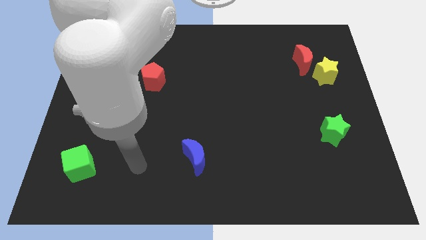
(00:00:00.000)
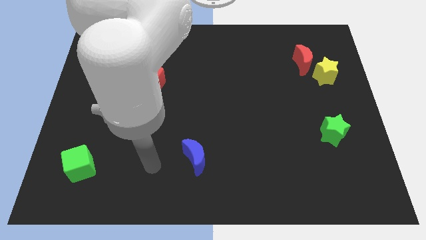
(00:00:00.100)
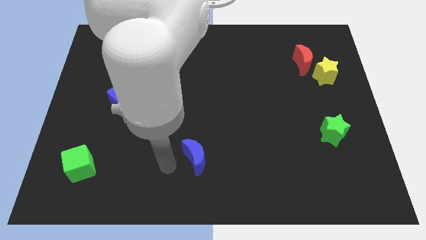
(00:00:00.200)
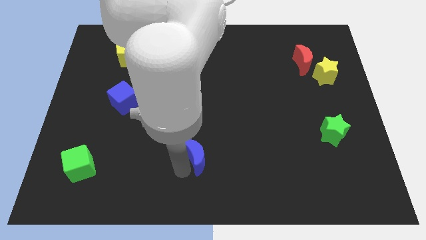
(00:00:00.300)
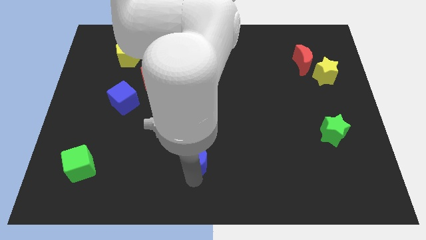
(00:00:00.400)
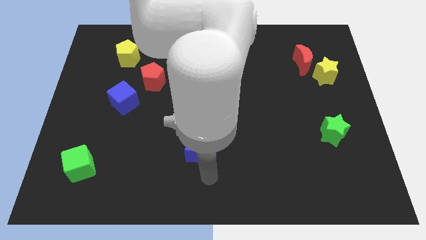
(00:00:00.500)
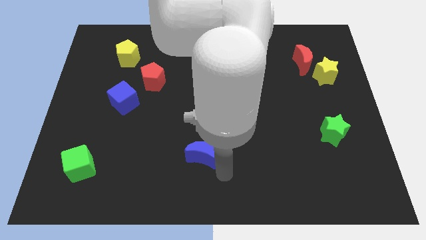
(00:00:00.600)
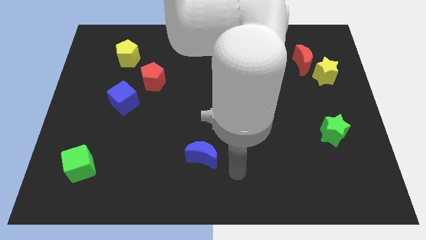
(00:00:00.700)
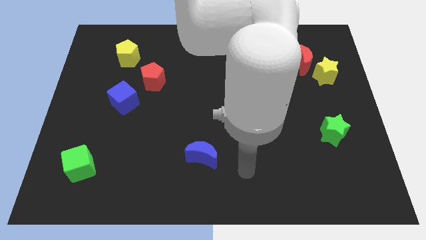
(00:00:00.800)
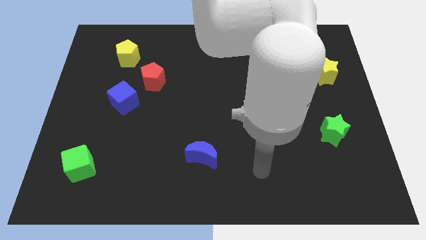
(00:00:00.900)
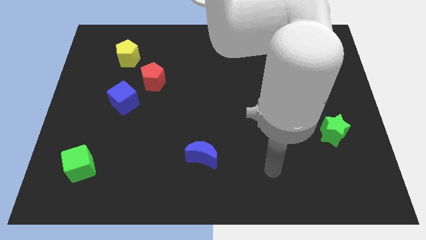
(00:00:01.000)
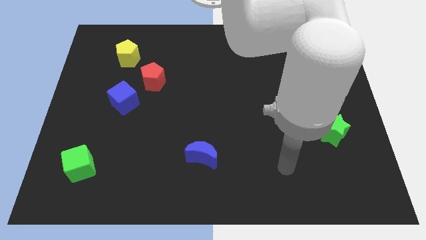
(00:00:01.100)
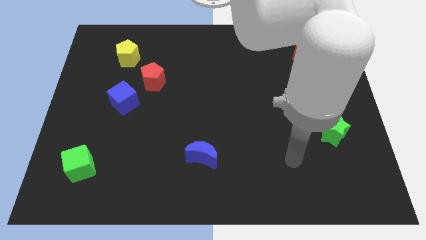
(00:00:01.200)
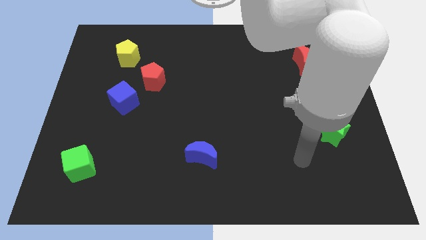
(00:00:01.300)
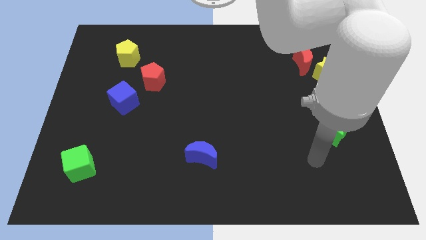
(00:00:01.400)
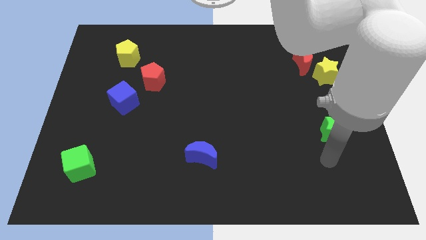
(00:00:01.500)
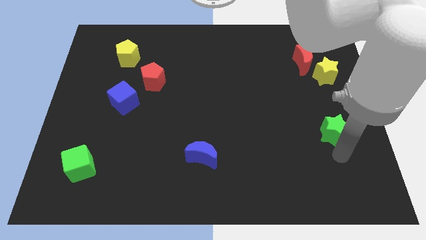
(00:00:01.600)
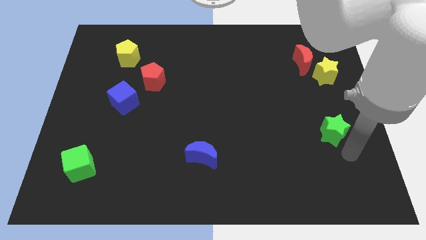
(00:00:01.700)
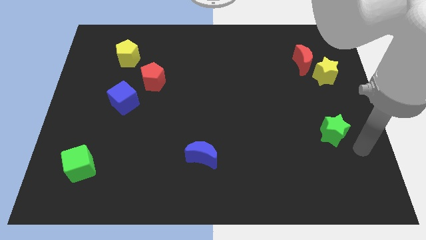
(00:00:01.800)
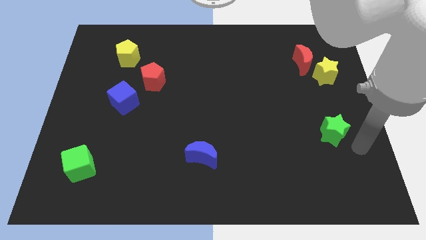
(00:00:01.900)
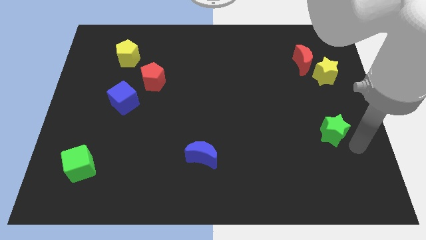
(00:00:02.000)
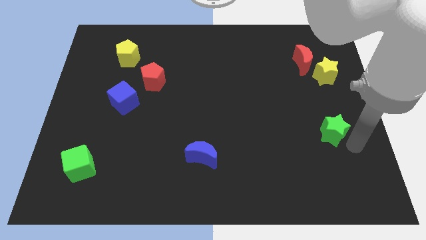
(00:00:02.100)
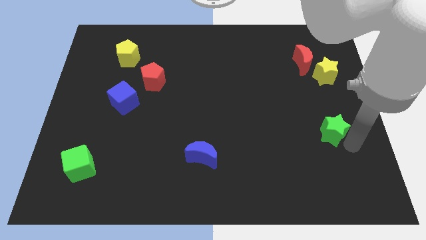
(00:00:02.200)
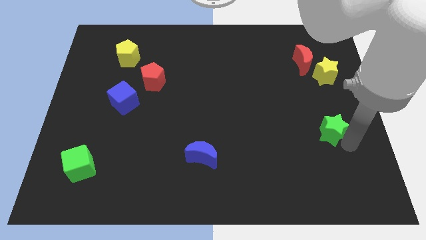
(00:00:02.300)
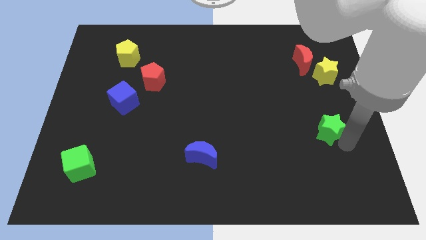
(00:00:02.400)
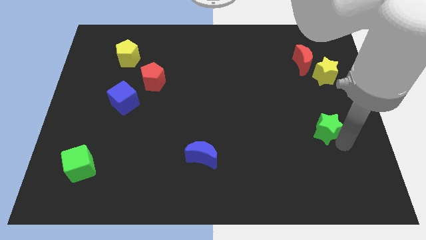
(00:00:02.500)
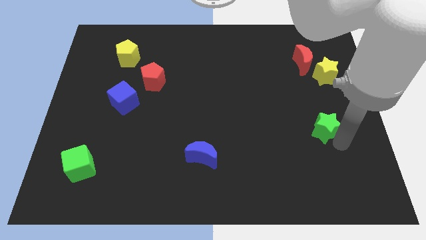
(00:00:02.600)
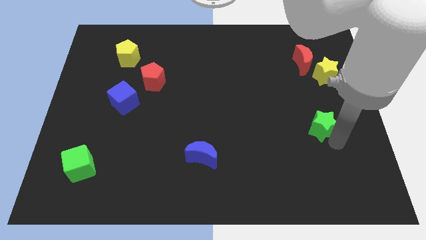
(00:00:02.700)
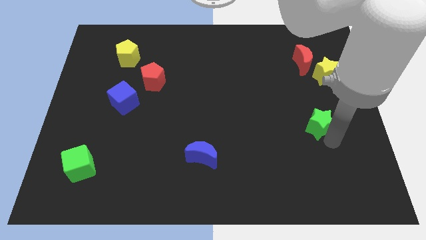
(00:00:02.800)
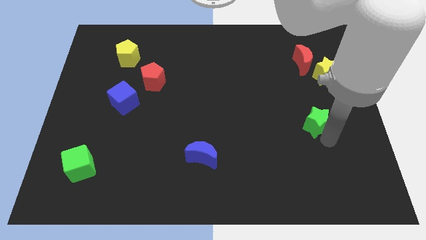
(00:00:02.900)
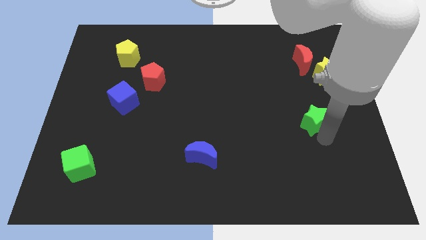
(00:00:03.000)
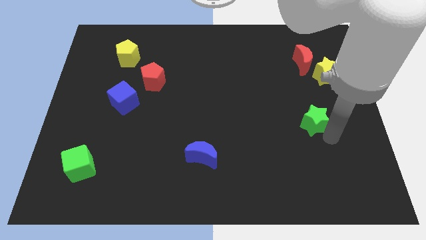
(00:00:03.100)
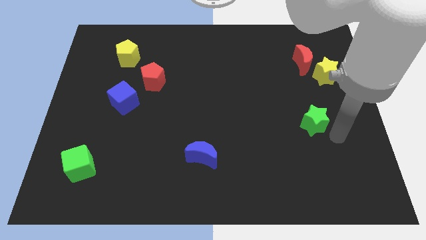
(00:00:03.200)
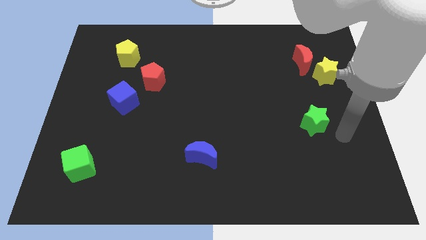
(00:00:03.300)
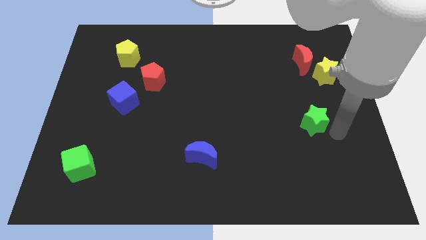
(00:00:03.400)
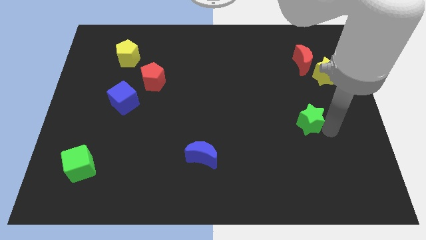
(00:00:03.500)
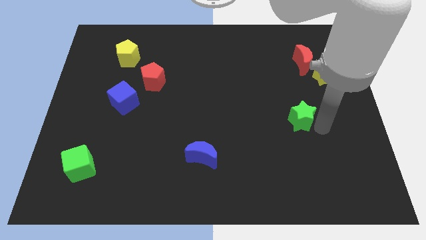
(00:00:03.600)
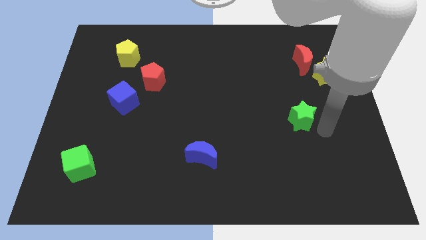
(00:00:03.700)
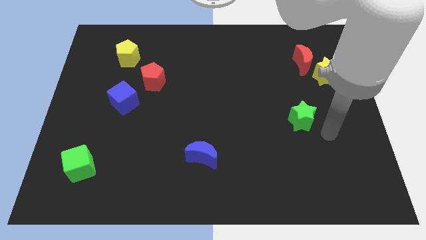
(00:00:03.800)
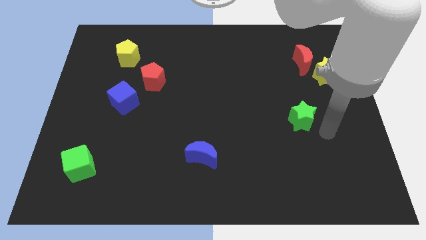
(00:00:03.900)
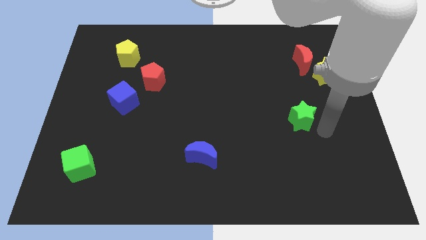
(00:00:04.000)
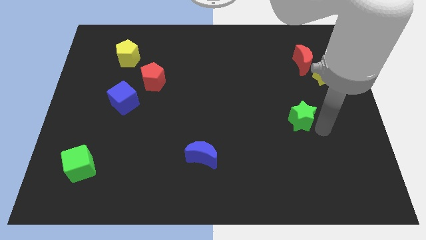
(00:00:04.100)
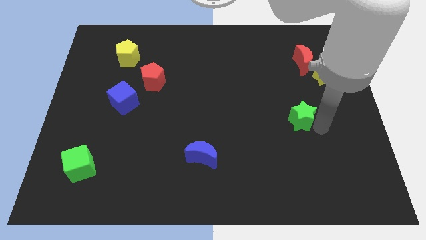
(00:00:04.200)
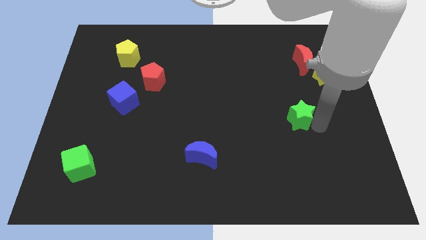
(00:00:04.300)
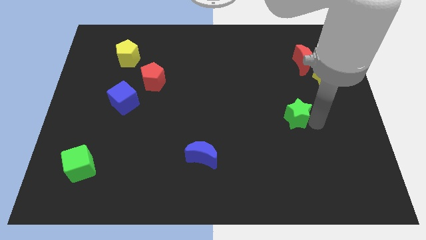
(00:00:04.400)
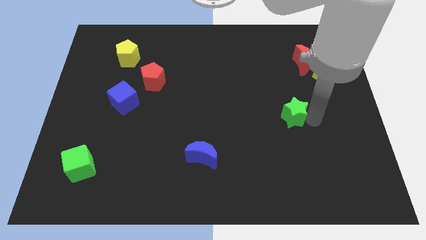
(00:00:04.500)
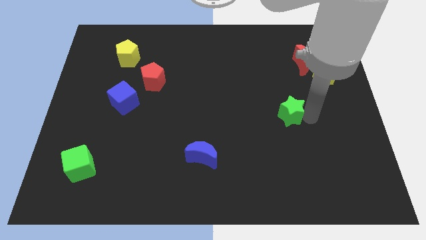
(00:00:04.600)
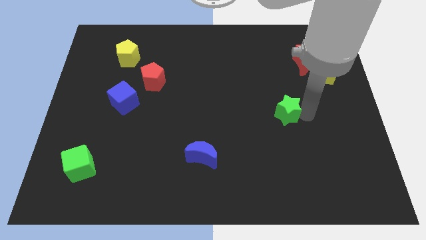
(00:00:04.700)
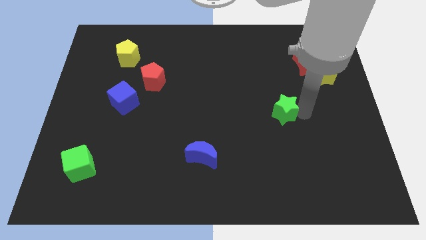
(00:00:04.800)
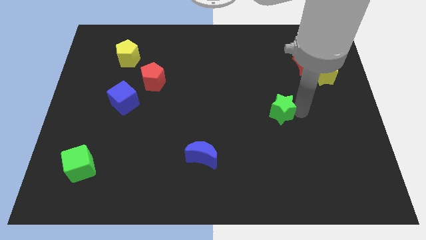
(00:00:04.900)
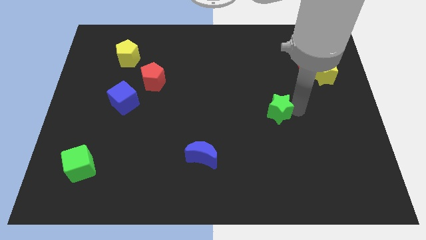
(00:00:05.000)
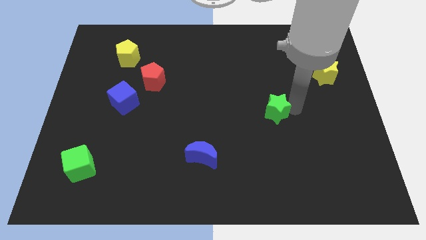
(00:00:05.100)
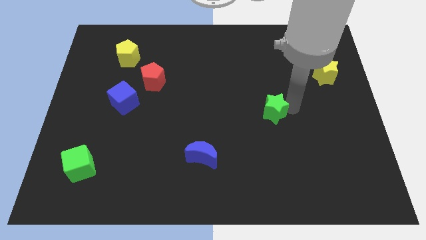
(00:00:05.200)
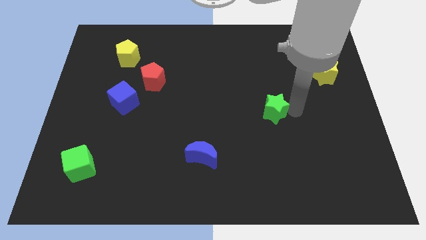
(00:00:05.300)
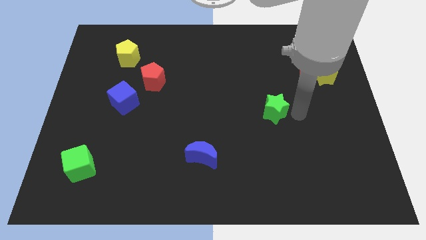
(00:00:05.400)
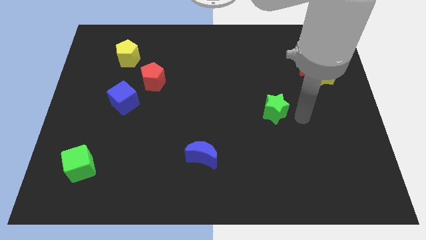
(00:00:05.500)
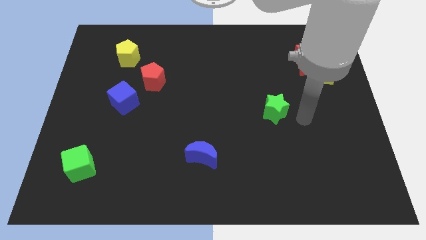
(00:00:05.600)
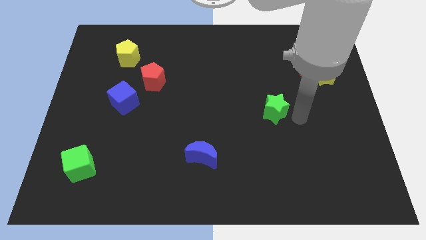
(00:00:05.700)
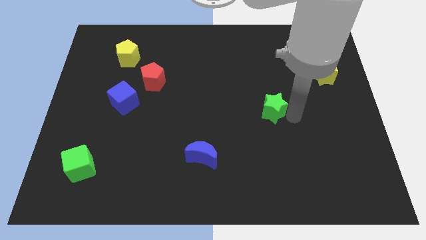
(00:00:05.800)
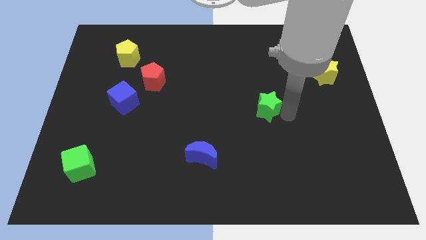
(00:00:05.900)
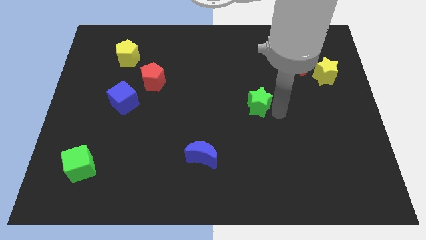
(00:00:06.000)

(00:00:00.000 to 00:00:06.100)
put the green star to the middle of the board

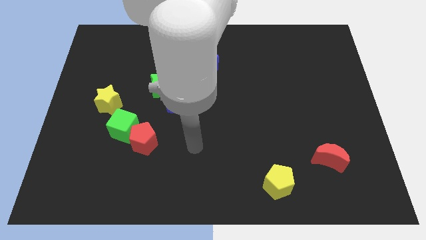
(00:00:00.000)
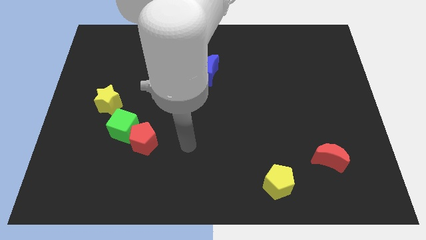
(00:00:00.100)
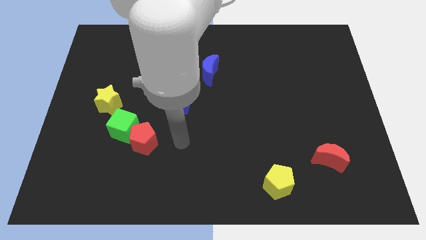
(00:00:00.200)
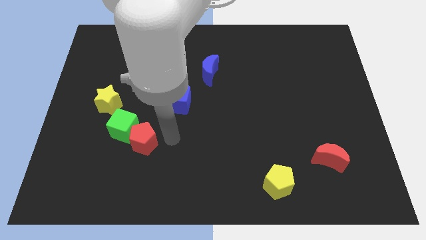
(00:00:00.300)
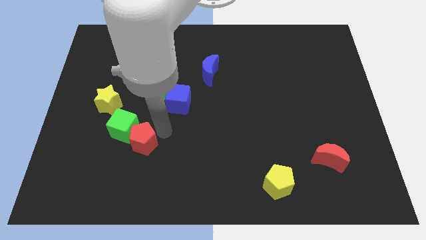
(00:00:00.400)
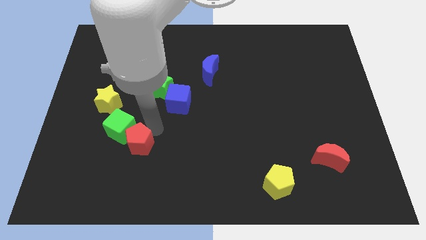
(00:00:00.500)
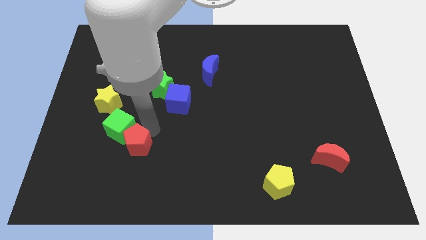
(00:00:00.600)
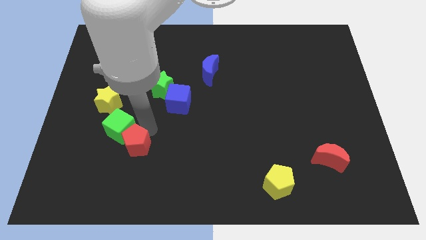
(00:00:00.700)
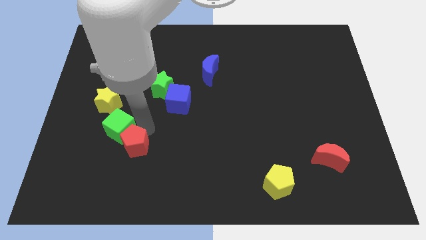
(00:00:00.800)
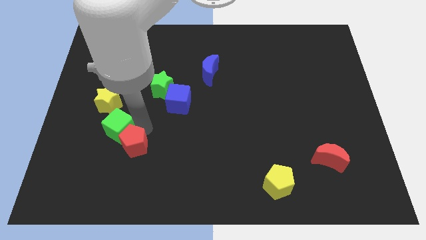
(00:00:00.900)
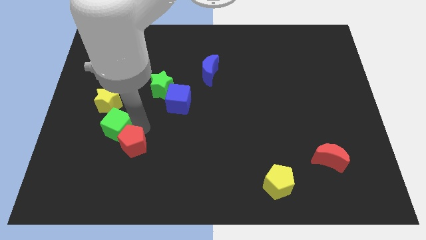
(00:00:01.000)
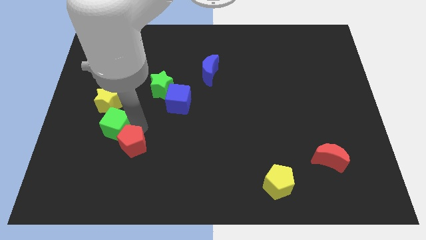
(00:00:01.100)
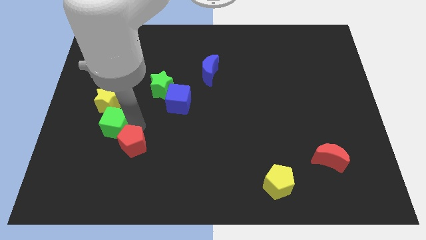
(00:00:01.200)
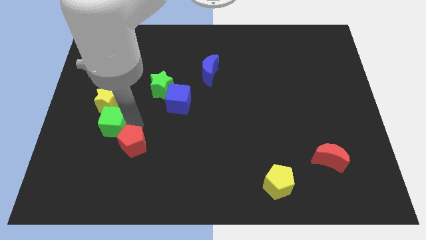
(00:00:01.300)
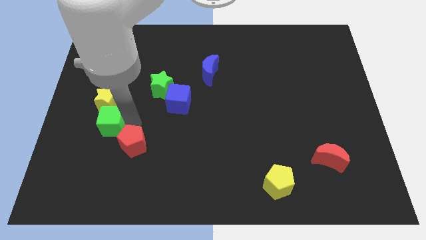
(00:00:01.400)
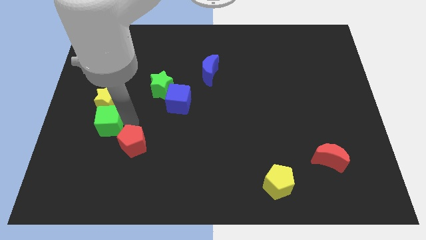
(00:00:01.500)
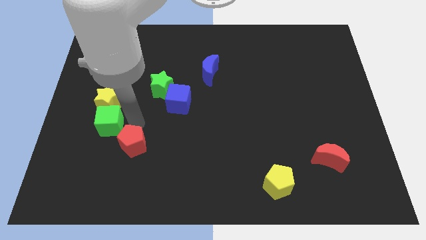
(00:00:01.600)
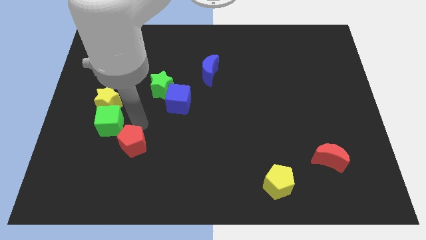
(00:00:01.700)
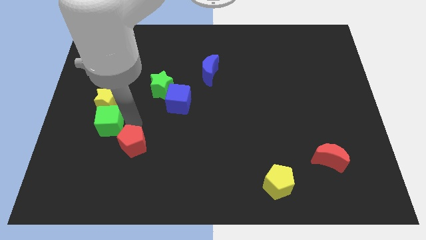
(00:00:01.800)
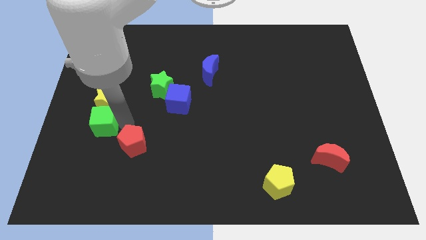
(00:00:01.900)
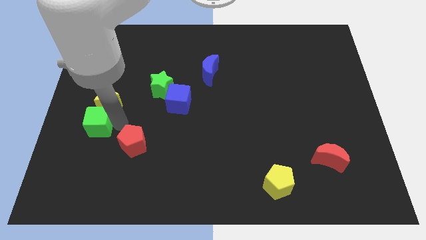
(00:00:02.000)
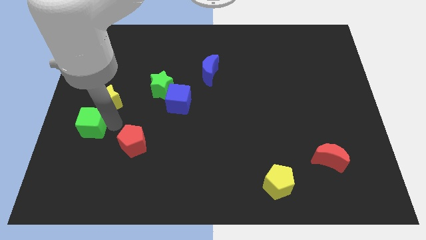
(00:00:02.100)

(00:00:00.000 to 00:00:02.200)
push the green cube to the left side
